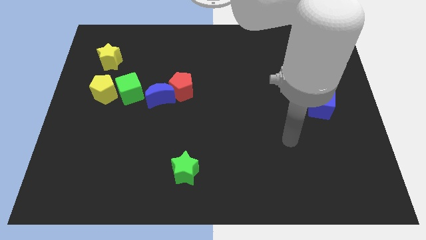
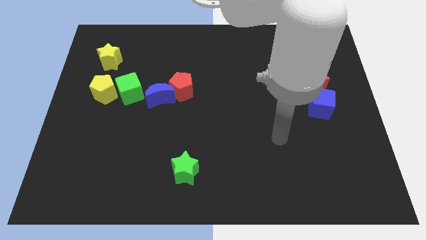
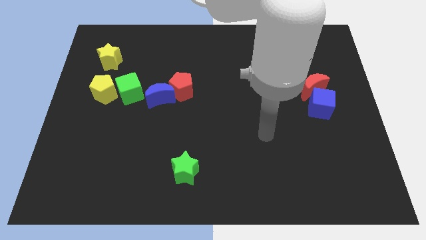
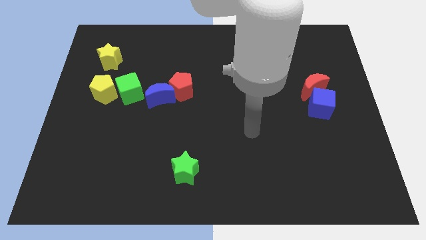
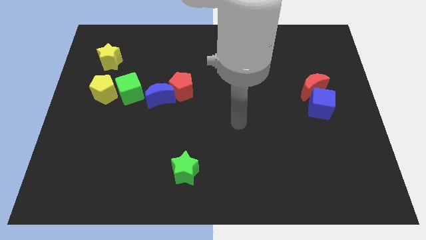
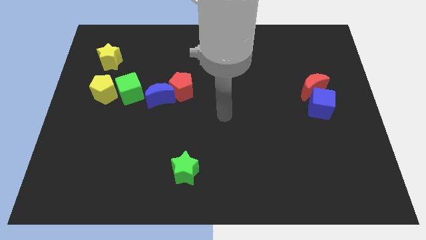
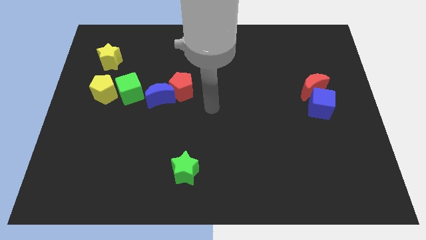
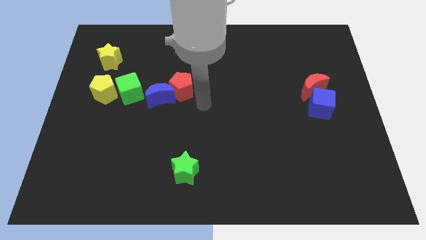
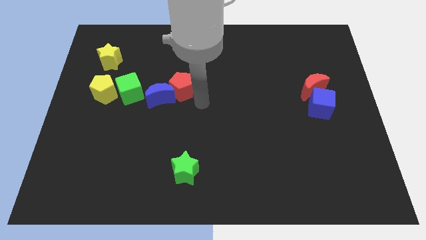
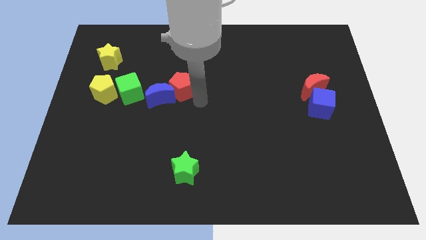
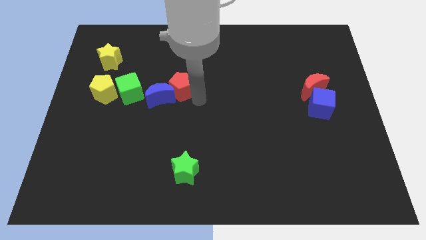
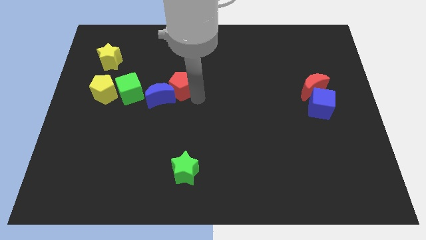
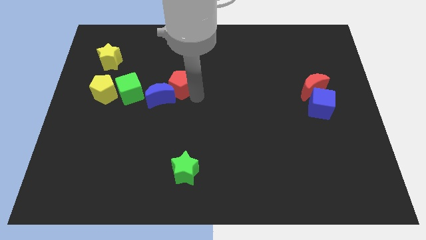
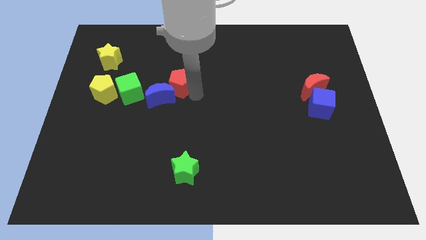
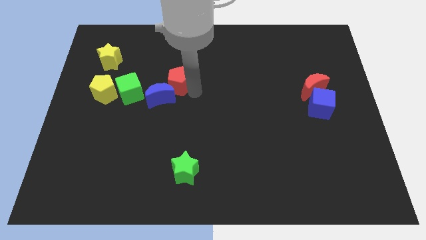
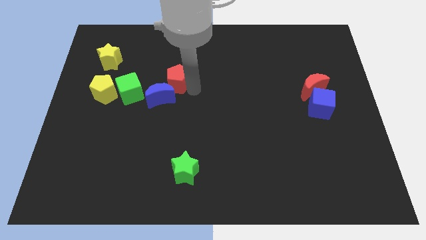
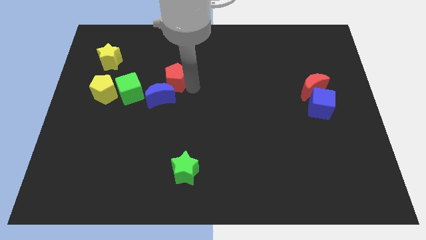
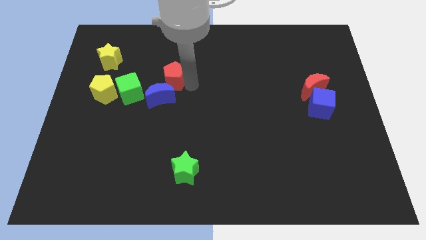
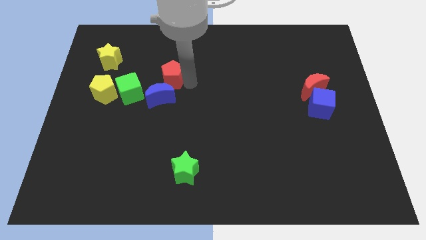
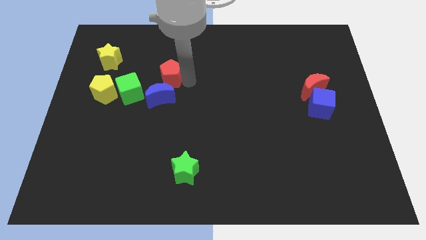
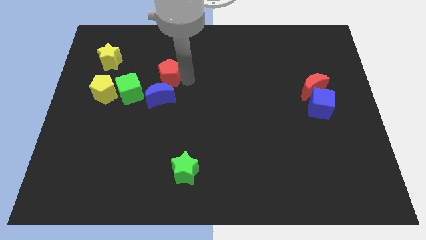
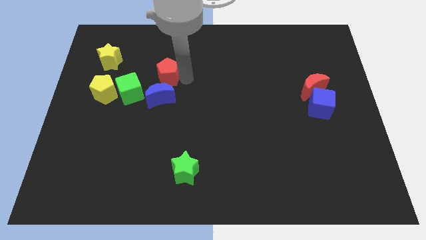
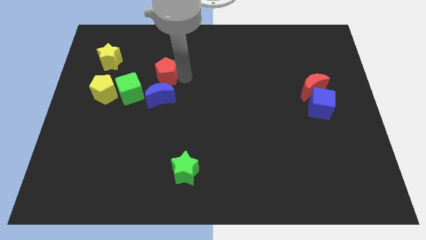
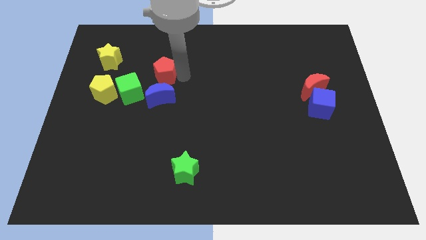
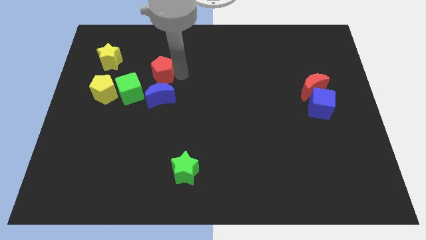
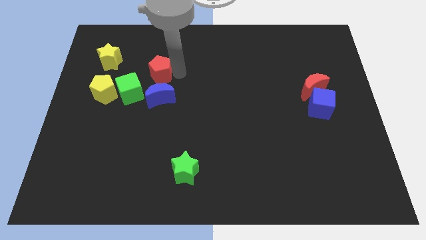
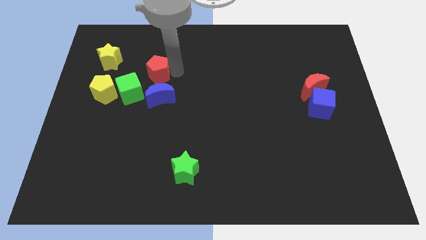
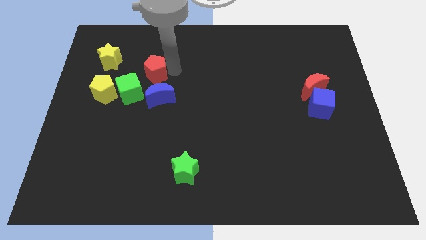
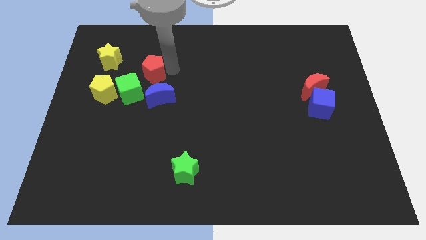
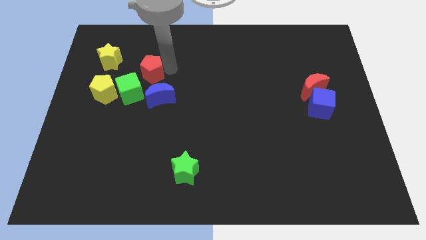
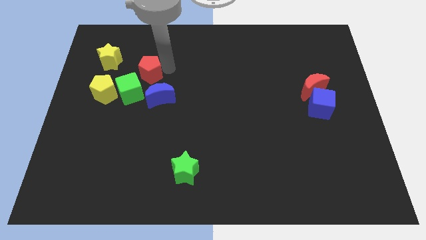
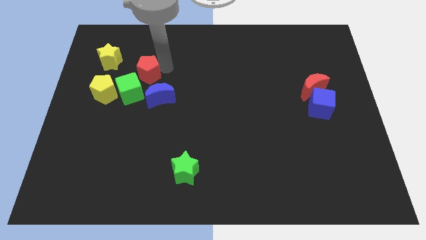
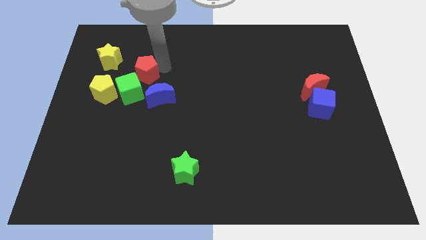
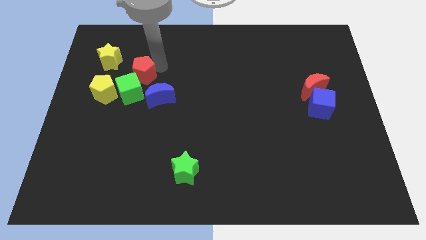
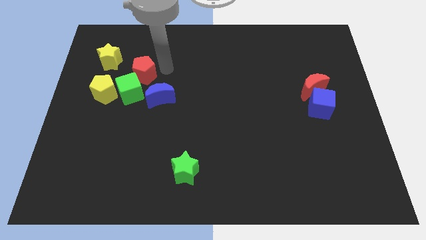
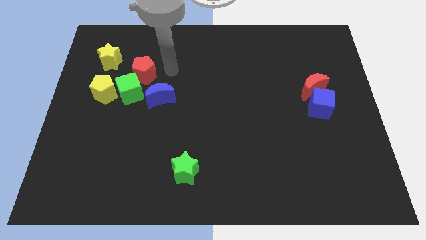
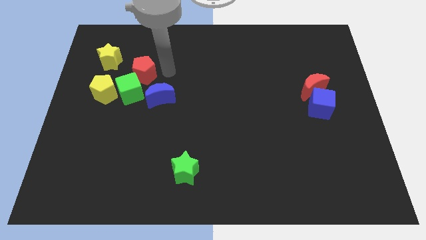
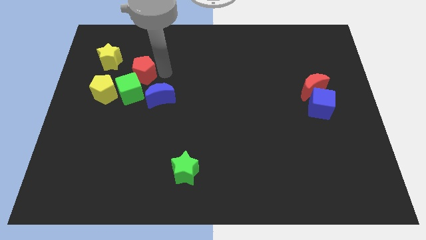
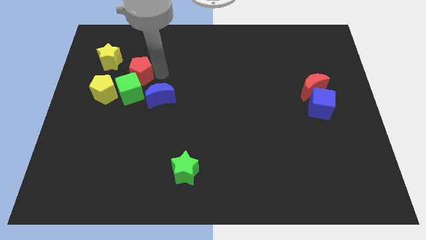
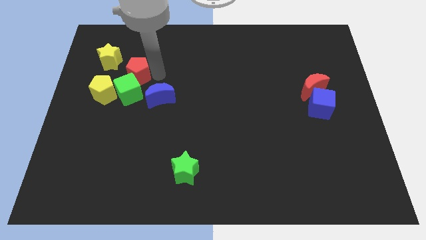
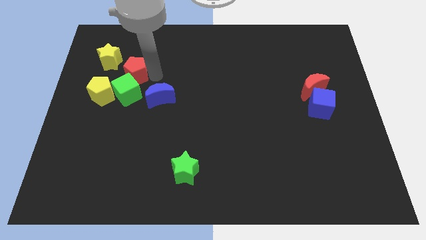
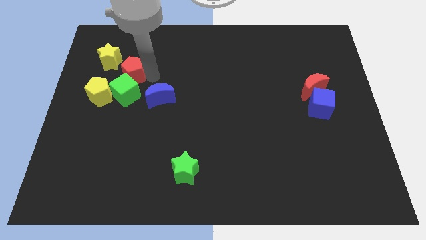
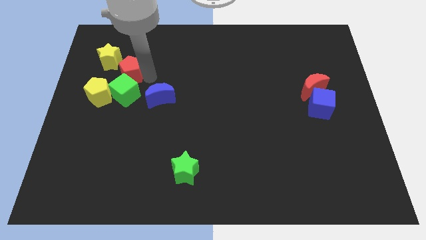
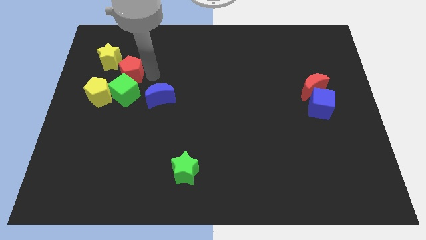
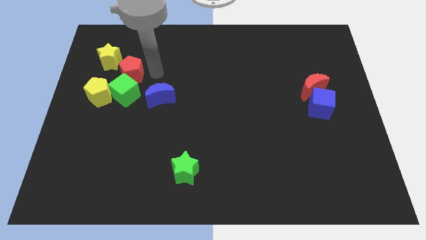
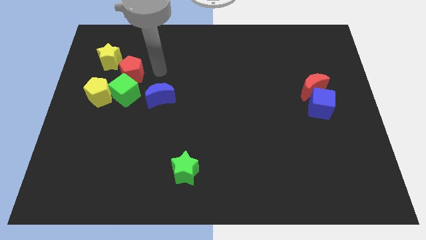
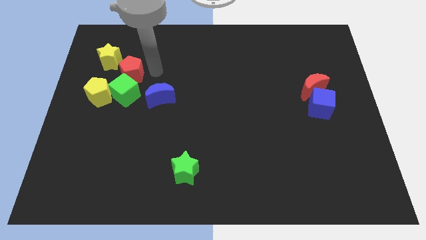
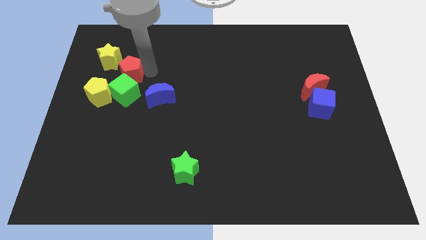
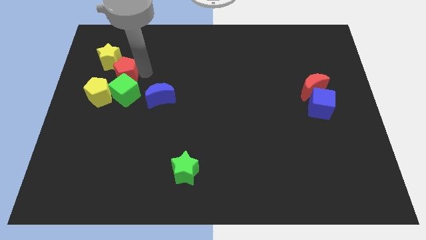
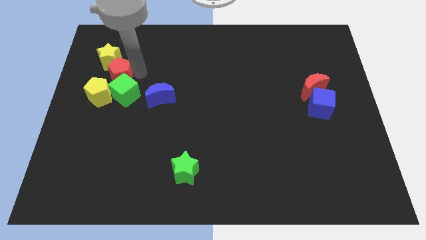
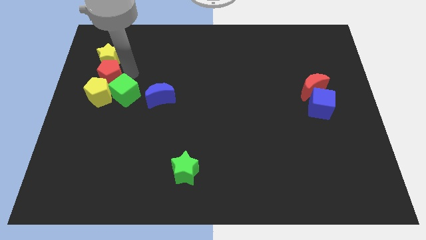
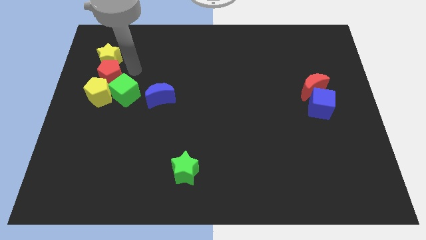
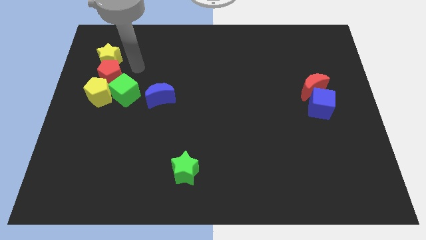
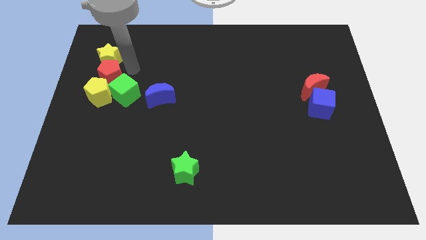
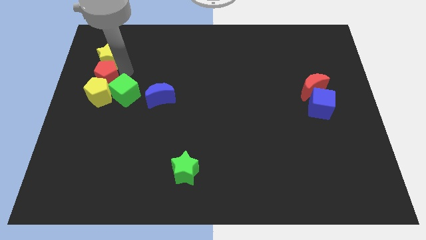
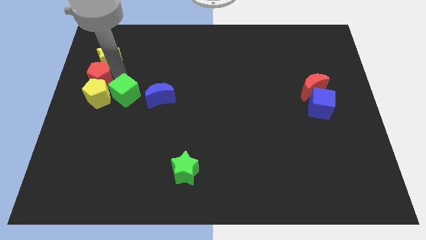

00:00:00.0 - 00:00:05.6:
move the red pentagon to the left side of the board

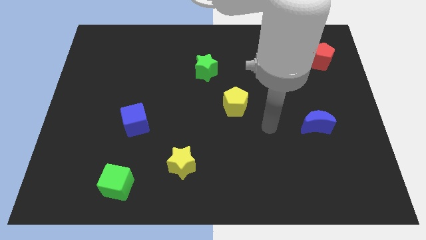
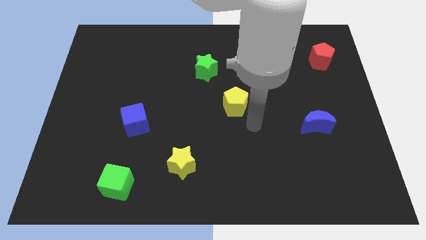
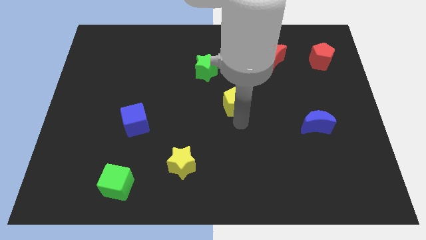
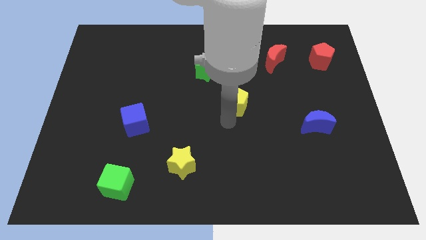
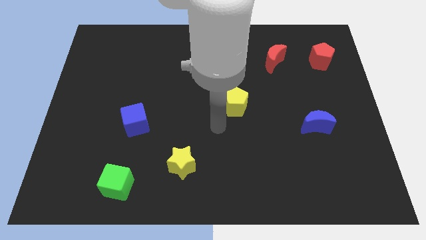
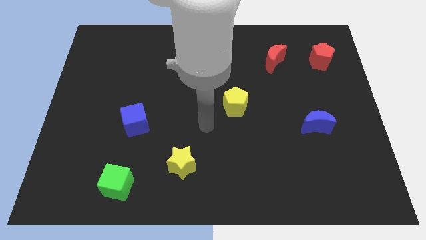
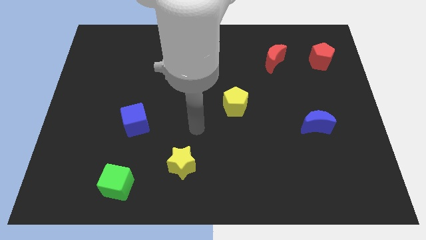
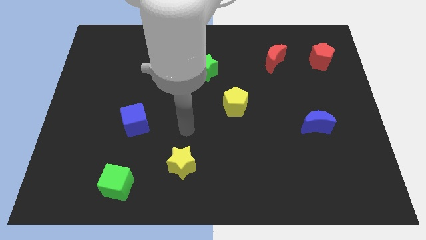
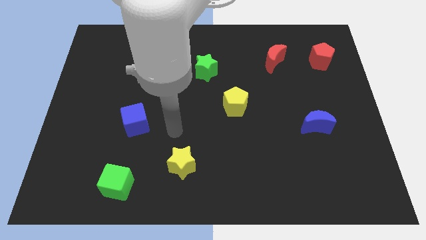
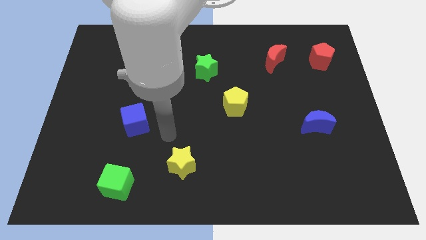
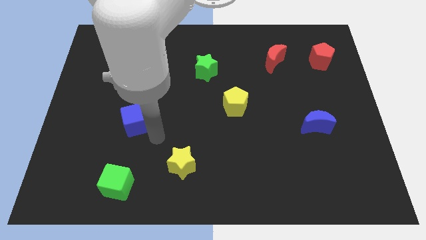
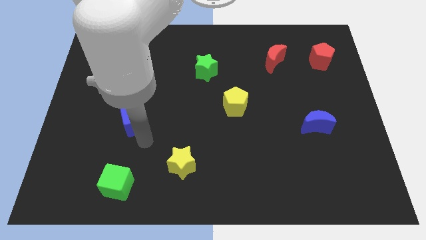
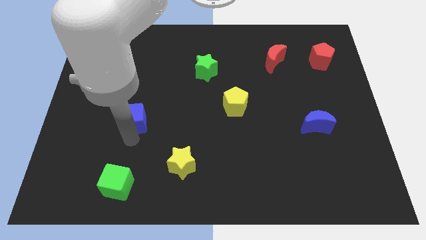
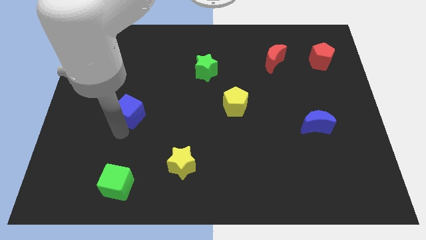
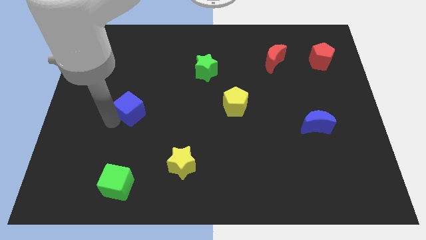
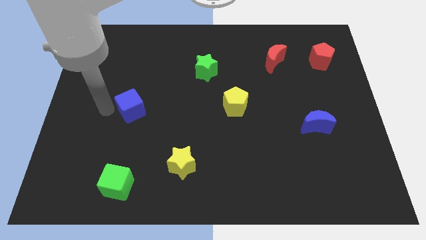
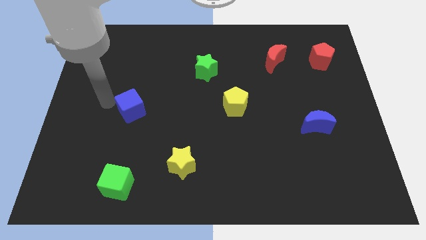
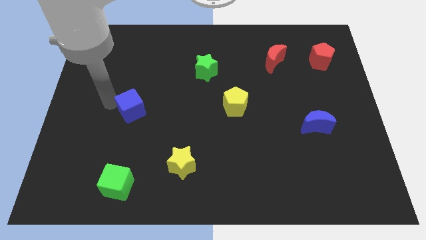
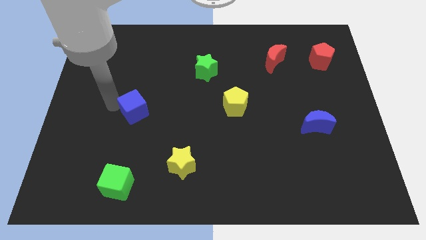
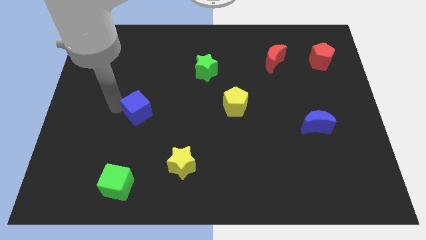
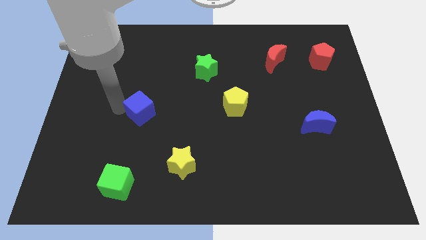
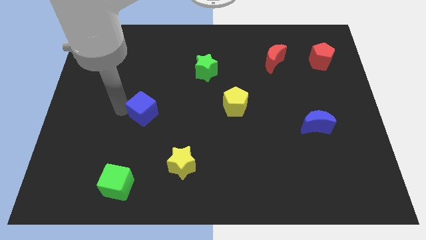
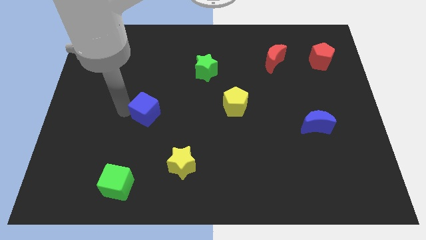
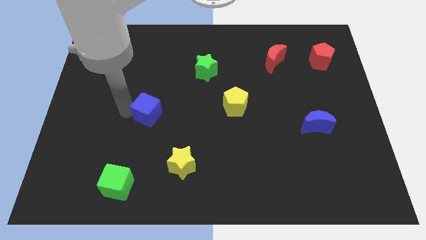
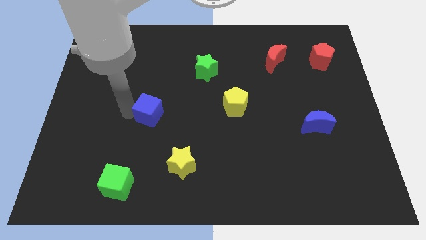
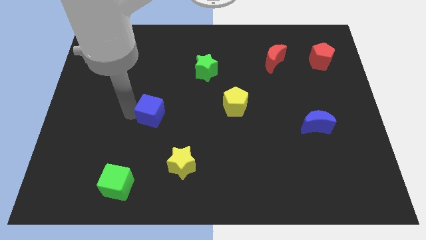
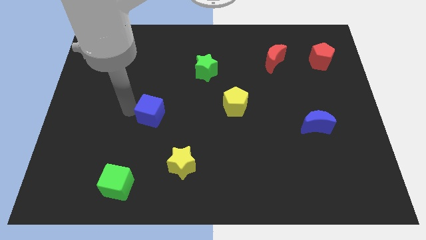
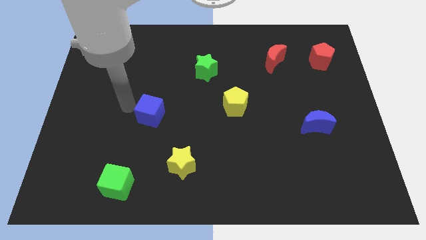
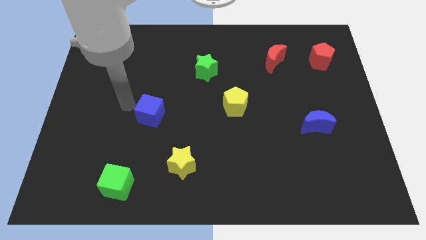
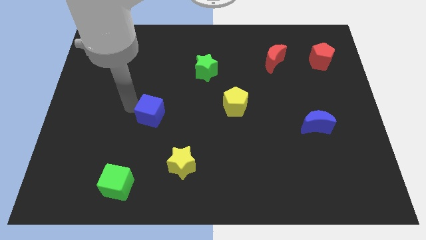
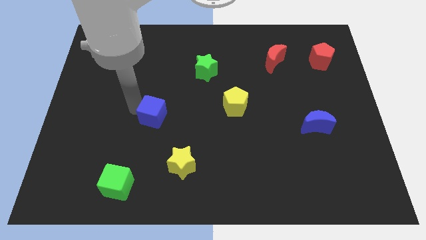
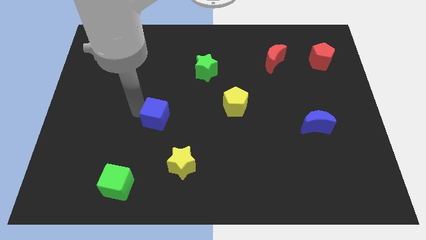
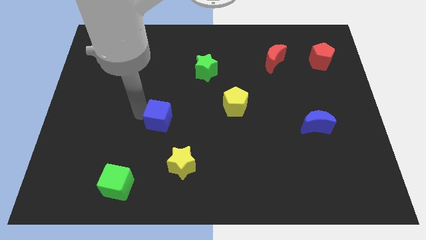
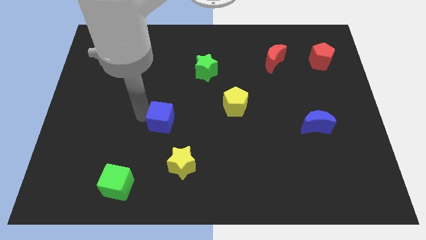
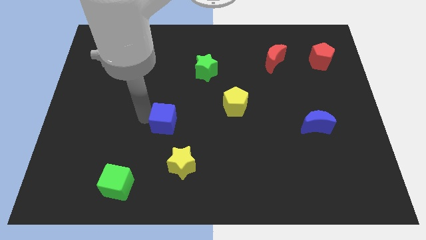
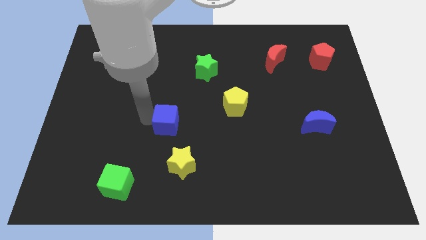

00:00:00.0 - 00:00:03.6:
put the blue cube to the middle
